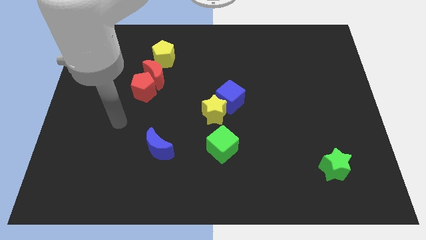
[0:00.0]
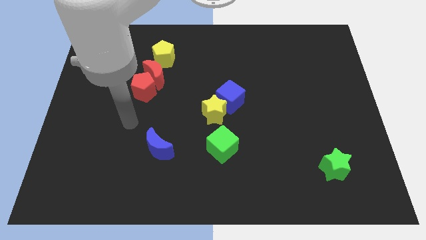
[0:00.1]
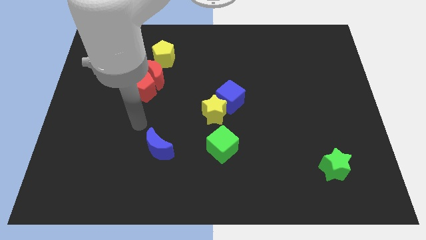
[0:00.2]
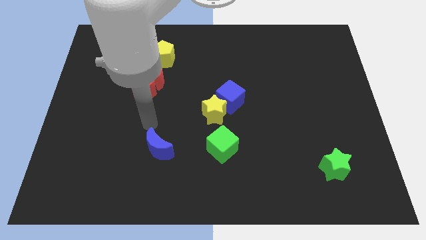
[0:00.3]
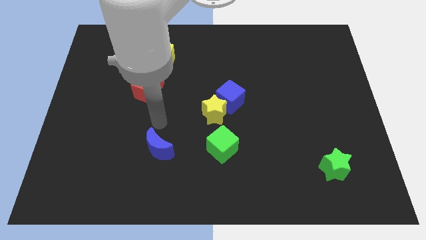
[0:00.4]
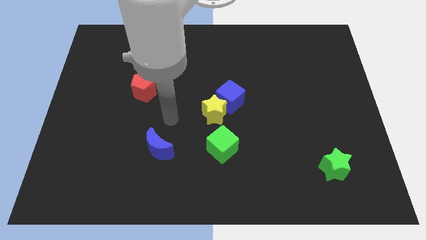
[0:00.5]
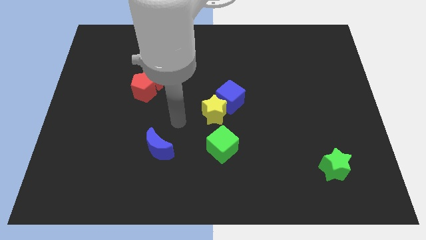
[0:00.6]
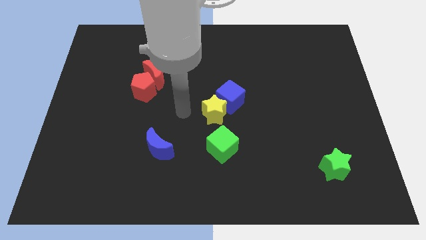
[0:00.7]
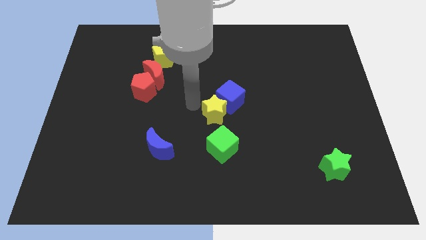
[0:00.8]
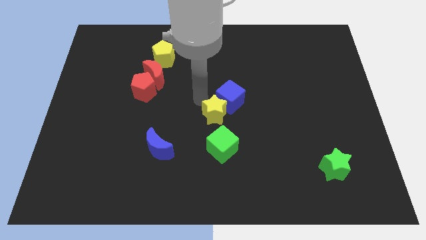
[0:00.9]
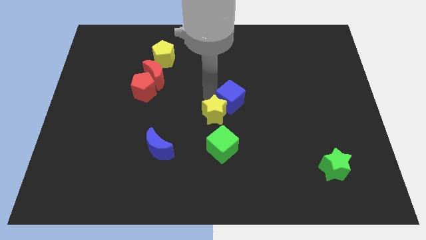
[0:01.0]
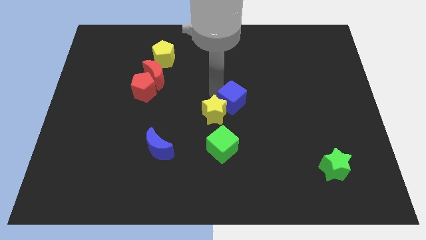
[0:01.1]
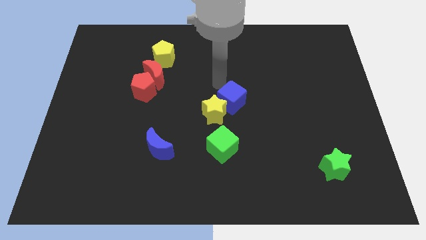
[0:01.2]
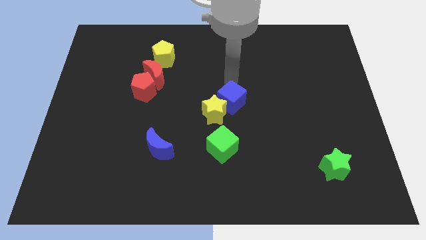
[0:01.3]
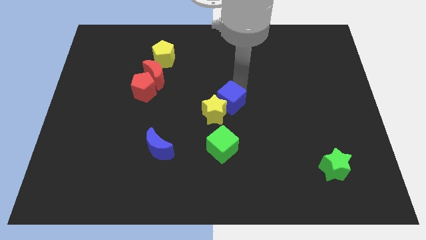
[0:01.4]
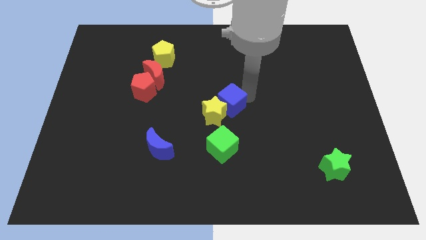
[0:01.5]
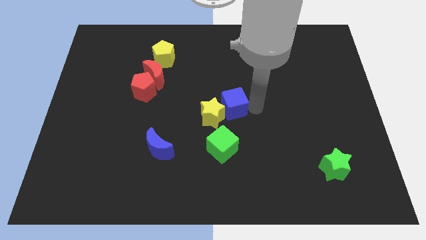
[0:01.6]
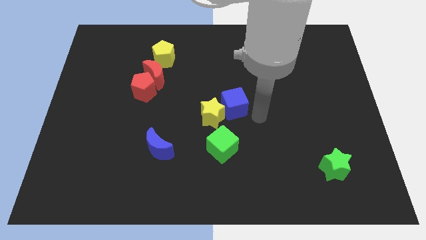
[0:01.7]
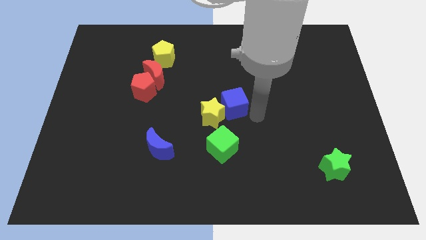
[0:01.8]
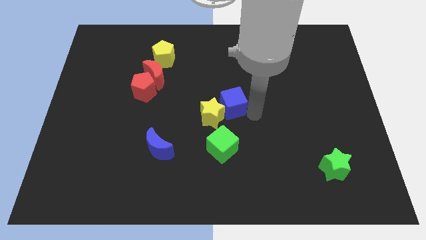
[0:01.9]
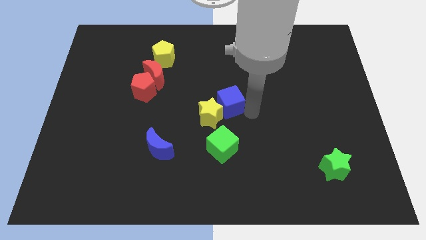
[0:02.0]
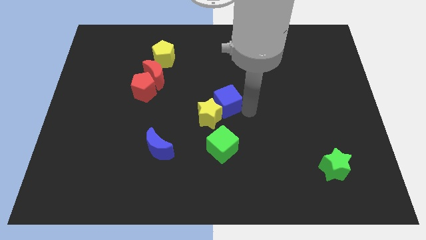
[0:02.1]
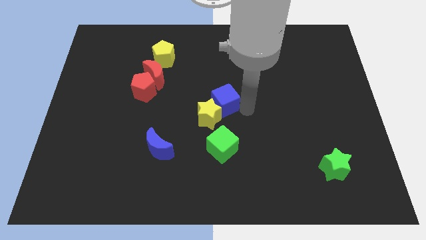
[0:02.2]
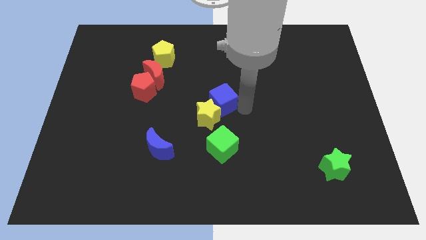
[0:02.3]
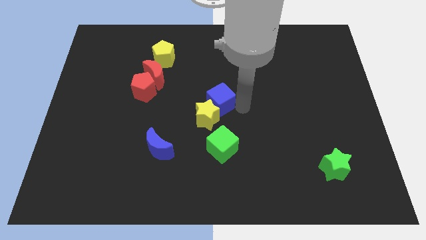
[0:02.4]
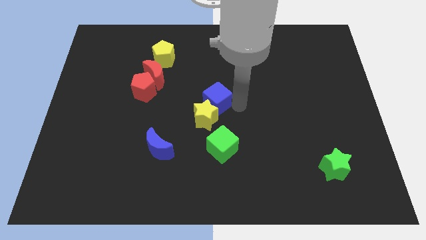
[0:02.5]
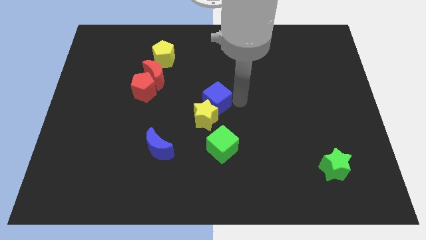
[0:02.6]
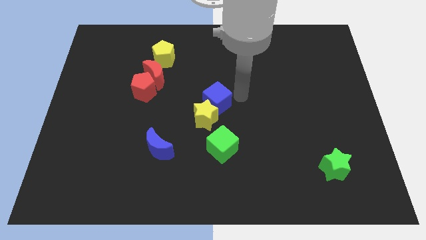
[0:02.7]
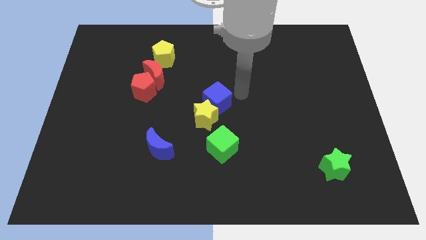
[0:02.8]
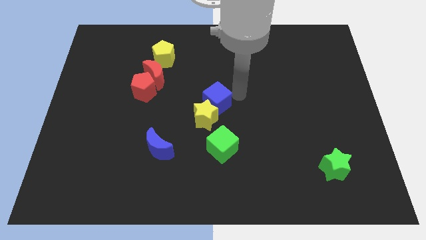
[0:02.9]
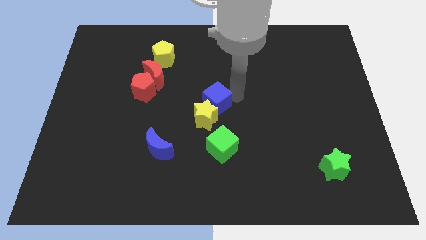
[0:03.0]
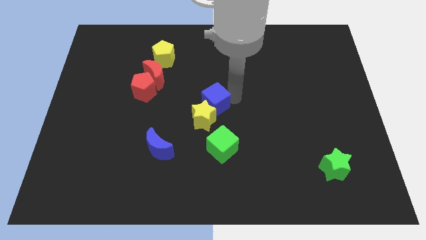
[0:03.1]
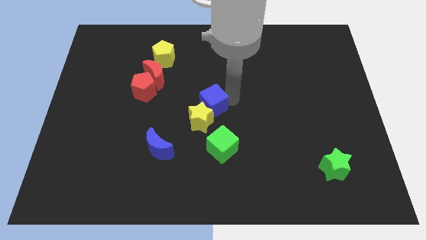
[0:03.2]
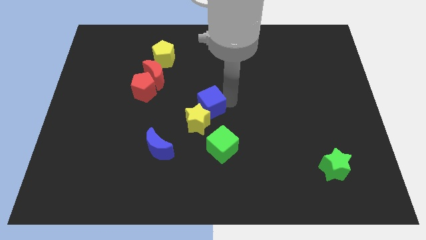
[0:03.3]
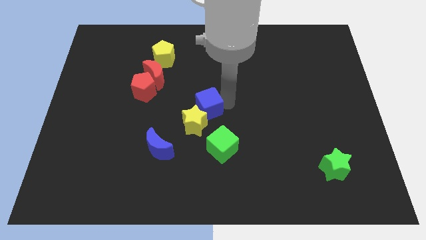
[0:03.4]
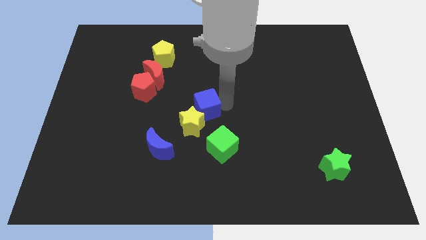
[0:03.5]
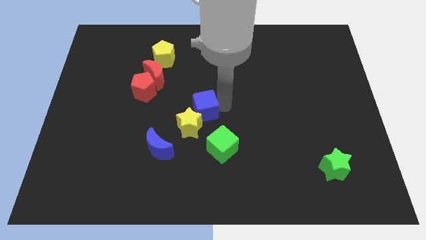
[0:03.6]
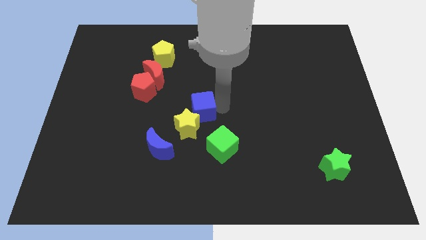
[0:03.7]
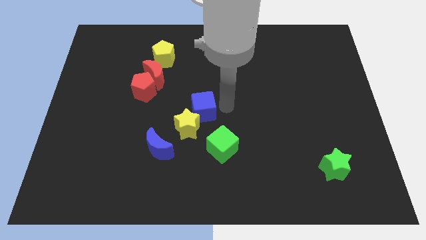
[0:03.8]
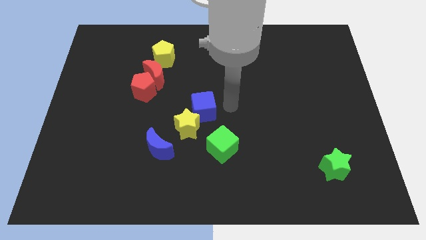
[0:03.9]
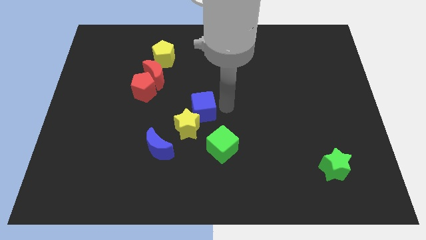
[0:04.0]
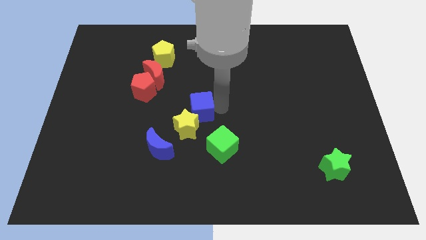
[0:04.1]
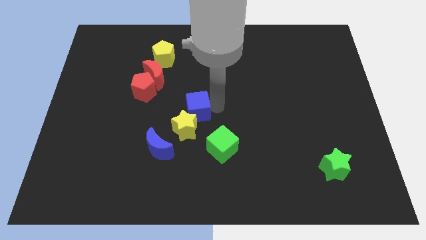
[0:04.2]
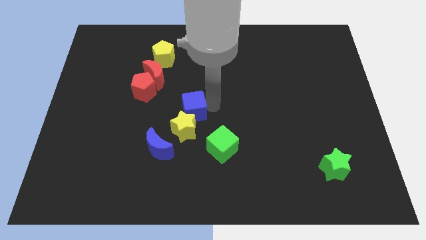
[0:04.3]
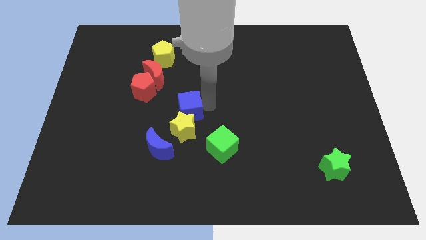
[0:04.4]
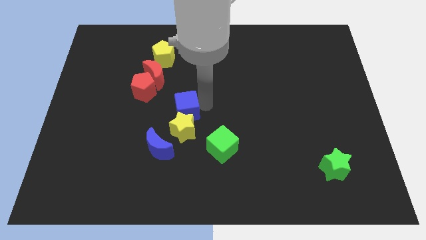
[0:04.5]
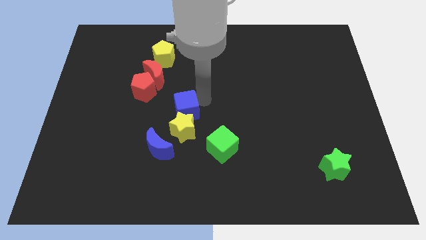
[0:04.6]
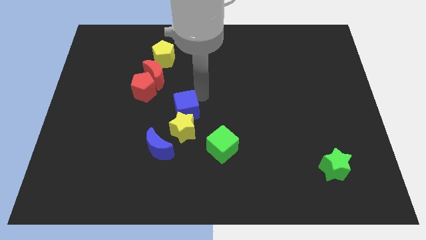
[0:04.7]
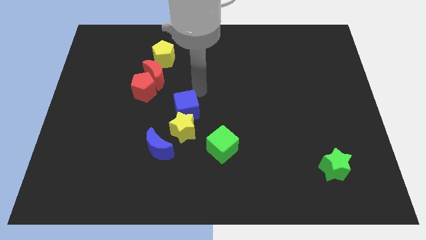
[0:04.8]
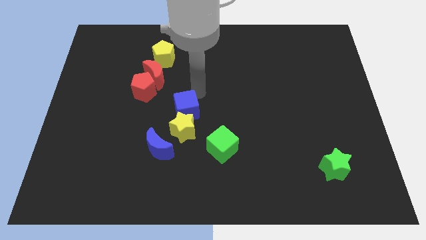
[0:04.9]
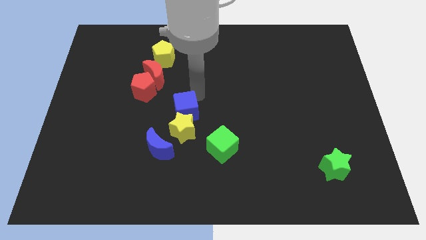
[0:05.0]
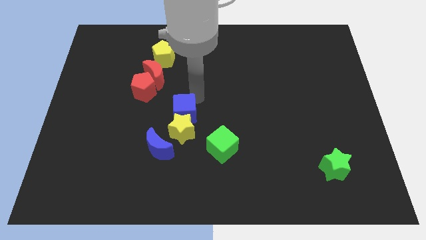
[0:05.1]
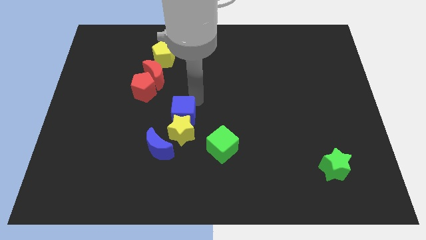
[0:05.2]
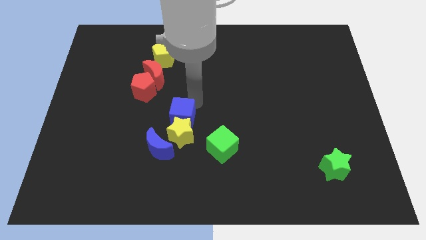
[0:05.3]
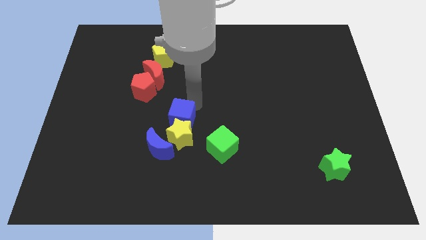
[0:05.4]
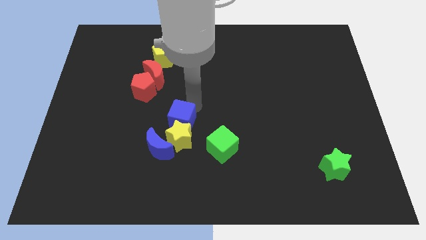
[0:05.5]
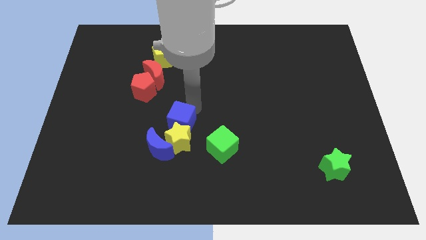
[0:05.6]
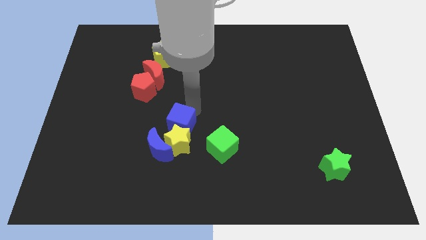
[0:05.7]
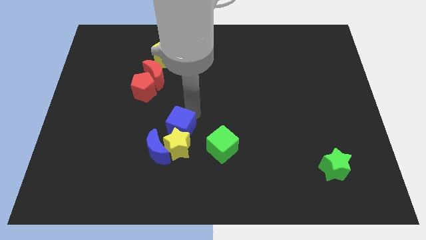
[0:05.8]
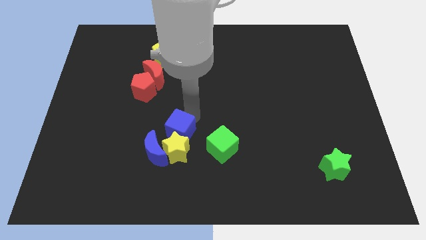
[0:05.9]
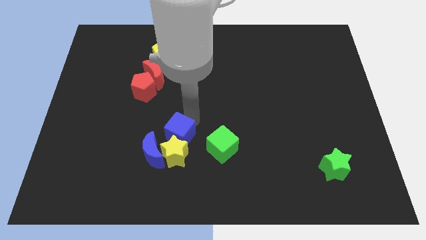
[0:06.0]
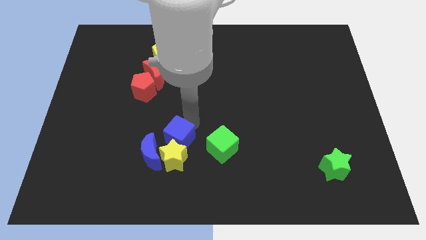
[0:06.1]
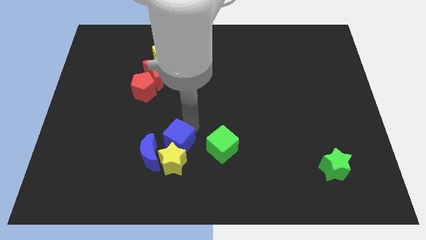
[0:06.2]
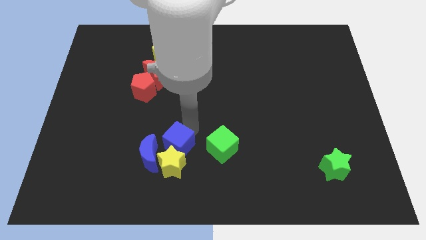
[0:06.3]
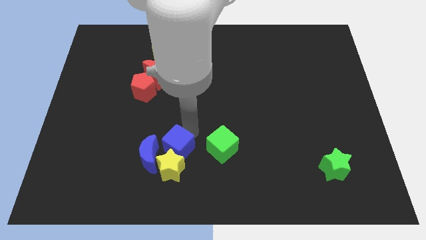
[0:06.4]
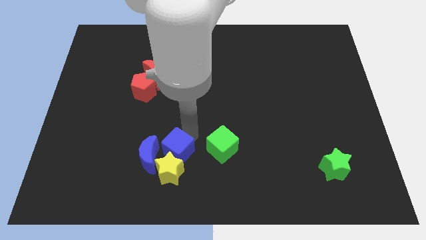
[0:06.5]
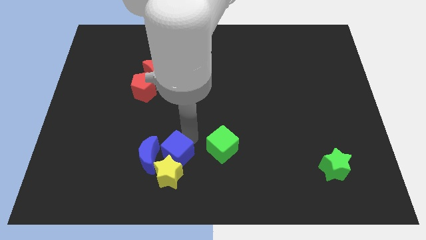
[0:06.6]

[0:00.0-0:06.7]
slide the blue cube towards the blue moon

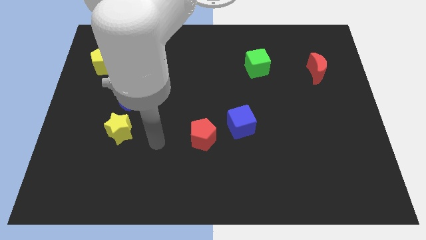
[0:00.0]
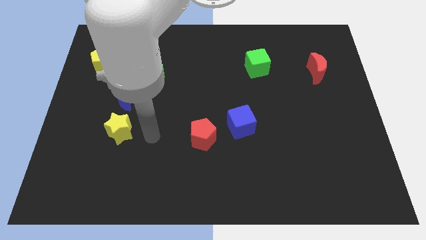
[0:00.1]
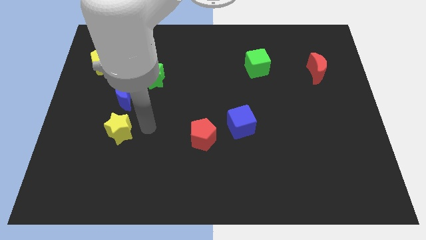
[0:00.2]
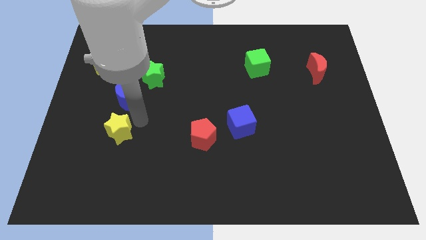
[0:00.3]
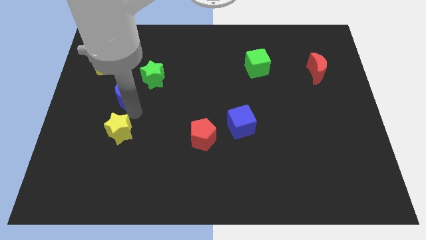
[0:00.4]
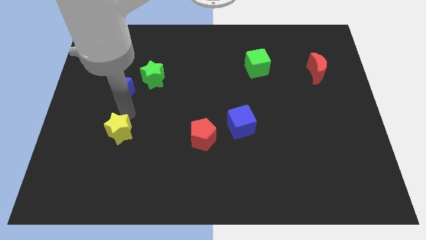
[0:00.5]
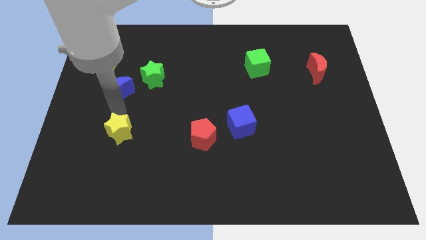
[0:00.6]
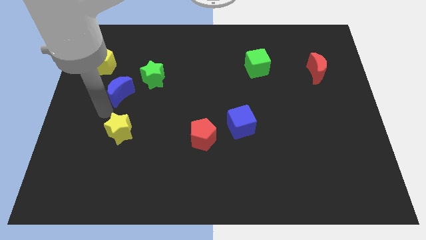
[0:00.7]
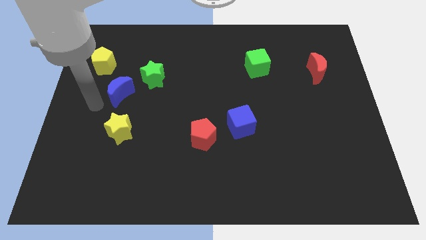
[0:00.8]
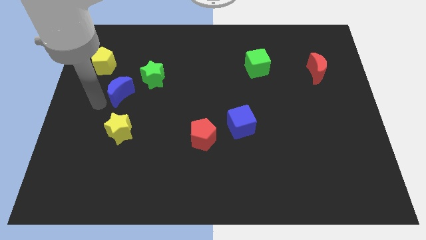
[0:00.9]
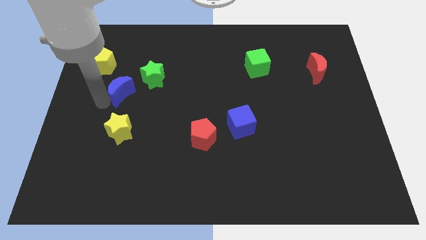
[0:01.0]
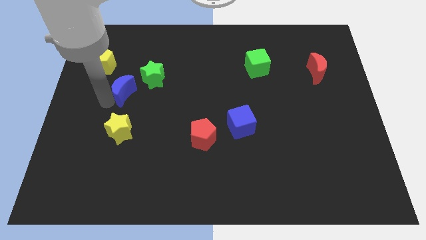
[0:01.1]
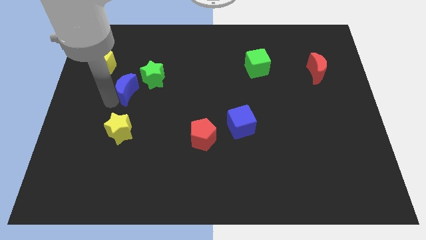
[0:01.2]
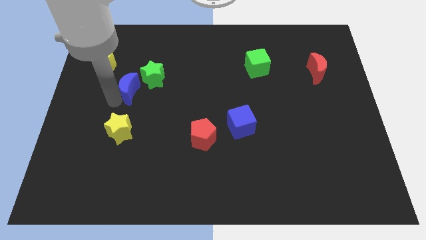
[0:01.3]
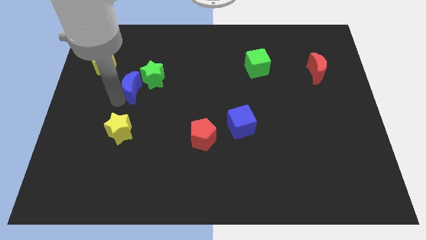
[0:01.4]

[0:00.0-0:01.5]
put the blue moon close to the green star
